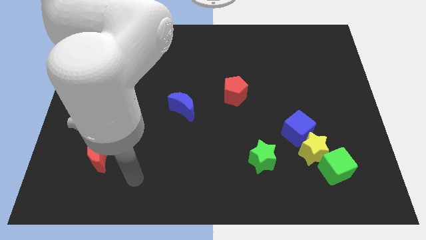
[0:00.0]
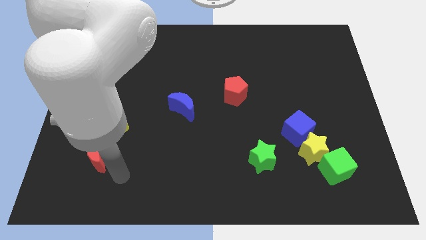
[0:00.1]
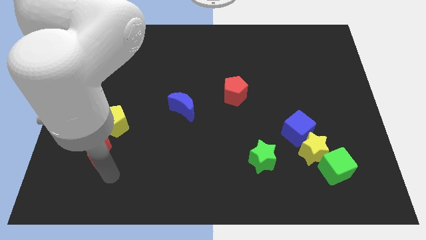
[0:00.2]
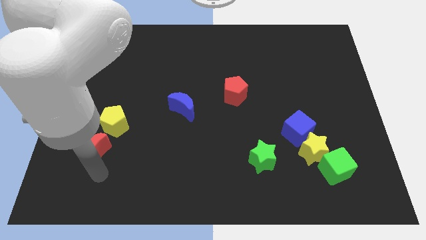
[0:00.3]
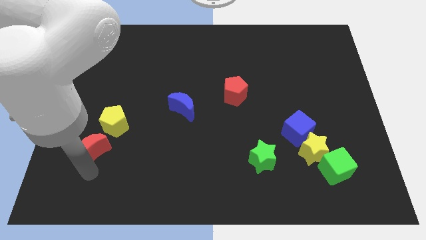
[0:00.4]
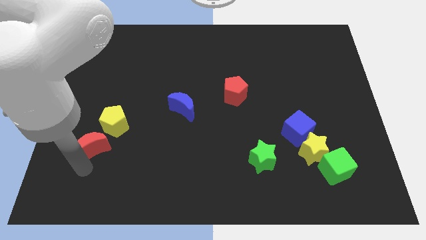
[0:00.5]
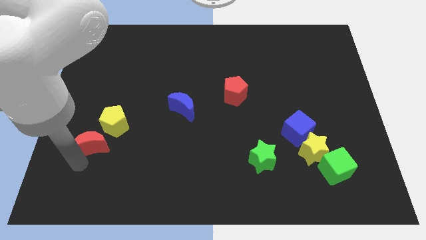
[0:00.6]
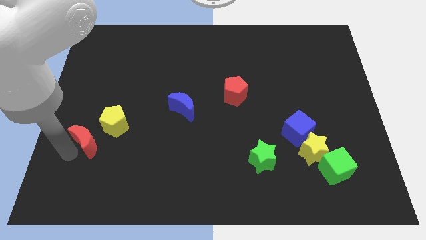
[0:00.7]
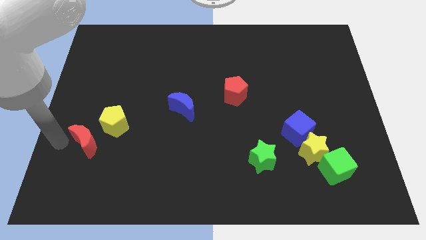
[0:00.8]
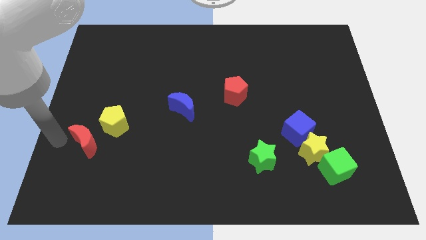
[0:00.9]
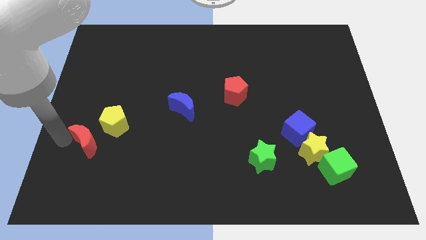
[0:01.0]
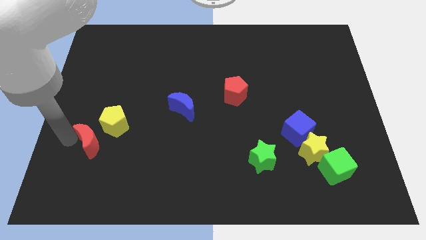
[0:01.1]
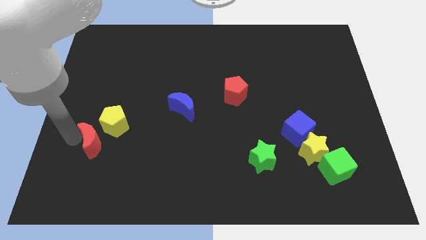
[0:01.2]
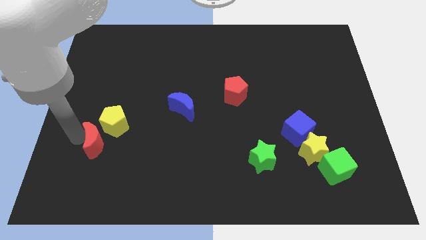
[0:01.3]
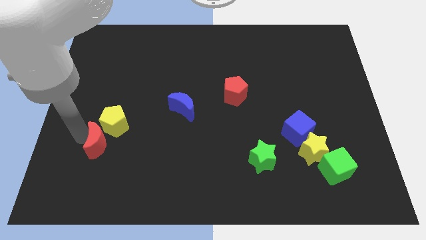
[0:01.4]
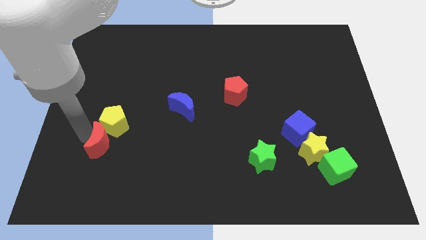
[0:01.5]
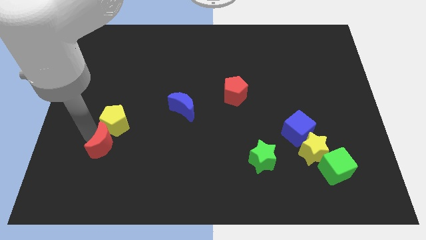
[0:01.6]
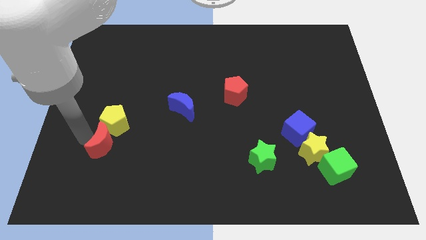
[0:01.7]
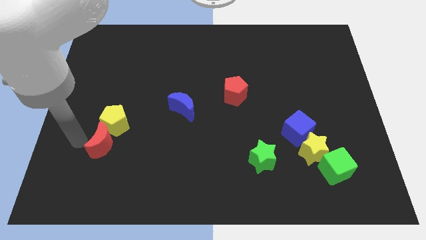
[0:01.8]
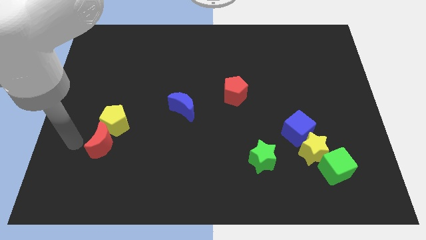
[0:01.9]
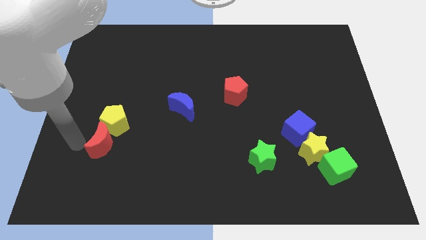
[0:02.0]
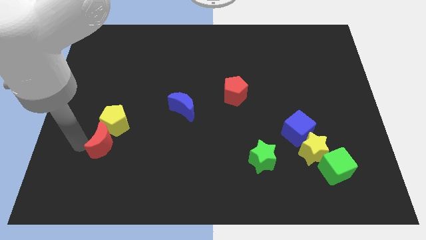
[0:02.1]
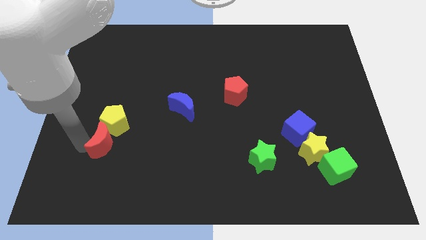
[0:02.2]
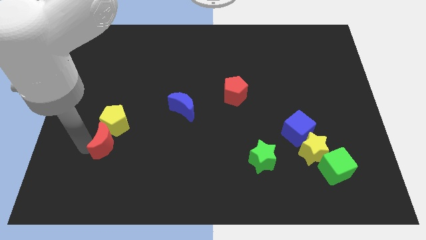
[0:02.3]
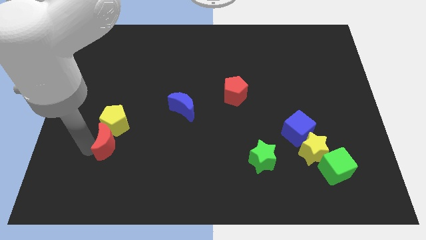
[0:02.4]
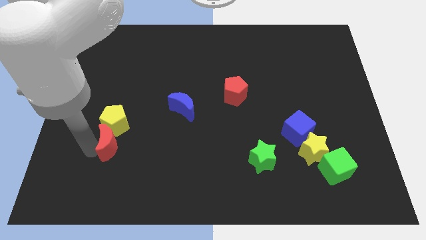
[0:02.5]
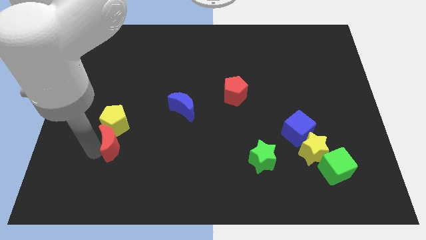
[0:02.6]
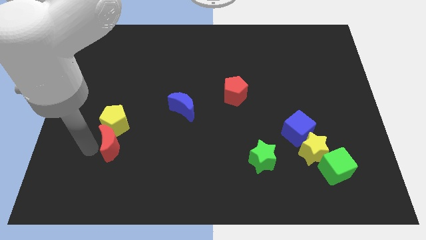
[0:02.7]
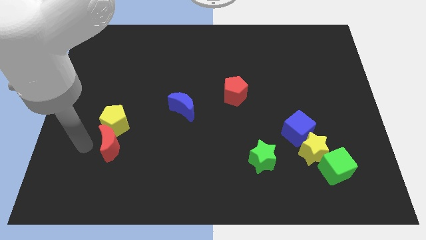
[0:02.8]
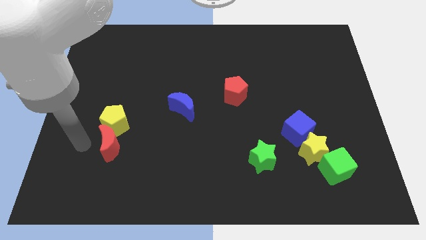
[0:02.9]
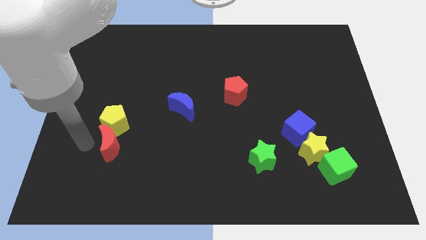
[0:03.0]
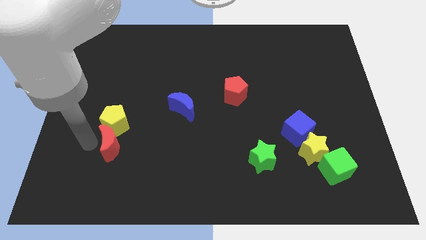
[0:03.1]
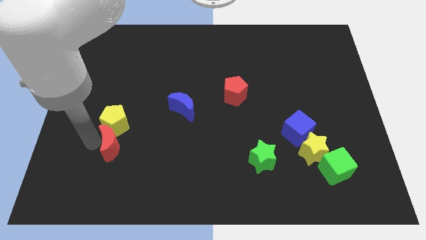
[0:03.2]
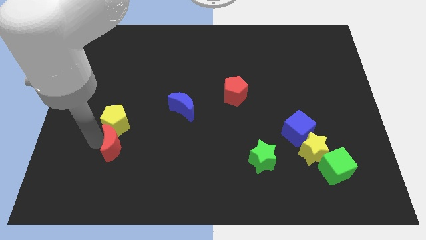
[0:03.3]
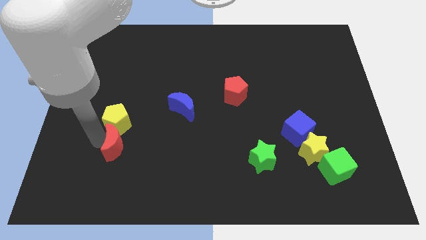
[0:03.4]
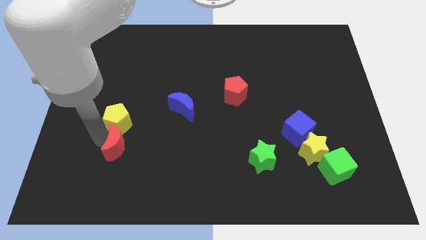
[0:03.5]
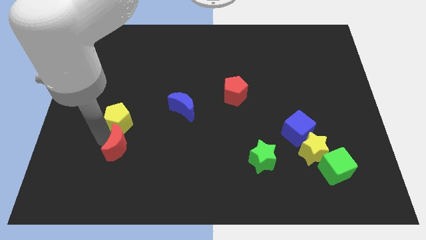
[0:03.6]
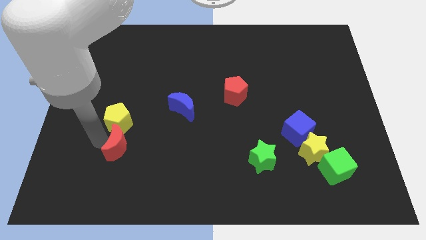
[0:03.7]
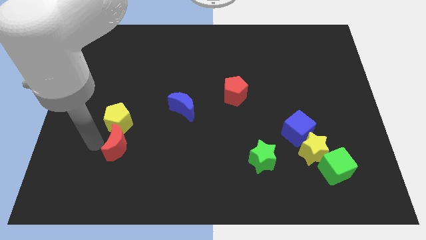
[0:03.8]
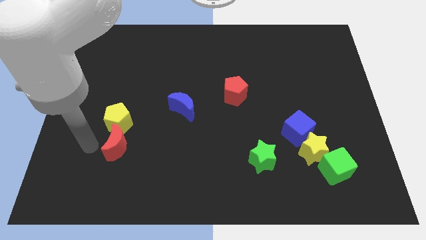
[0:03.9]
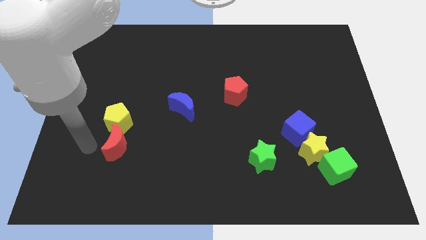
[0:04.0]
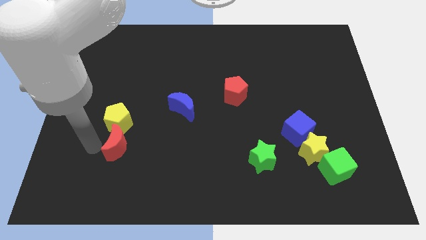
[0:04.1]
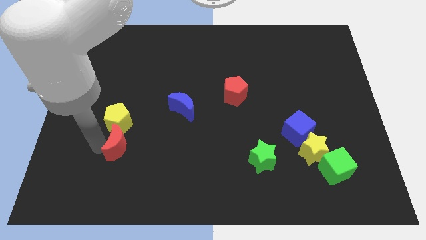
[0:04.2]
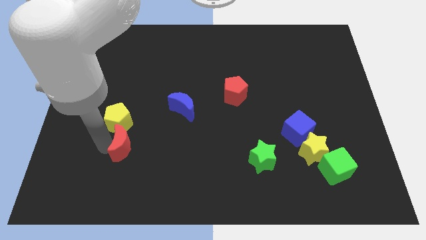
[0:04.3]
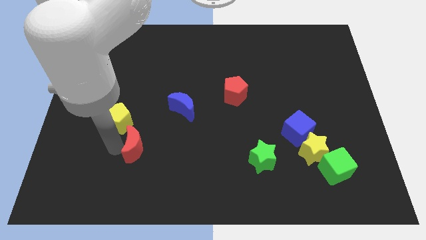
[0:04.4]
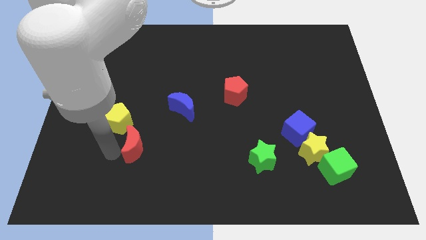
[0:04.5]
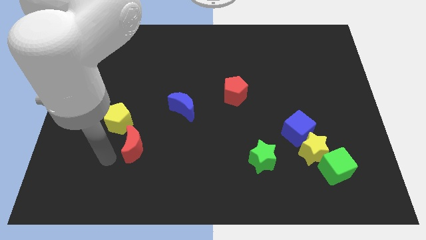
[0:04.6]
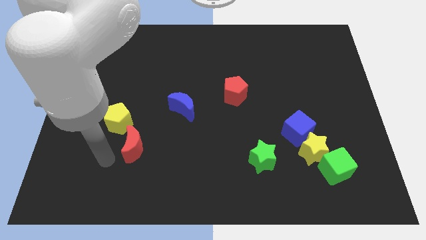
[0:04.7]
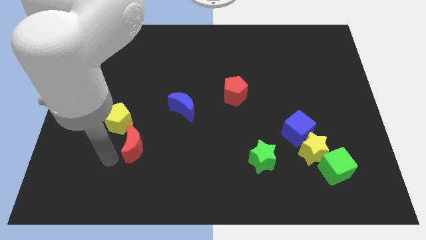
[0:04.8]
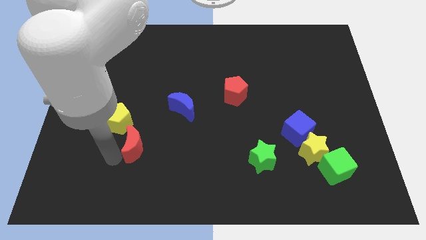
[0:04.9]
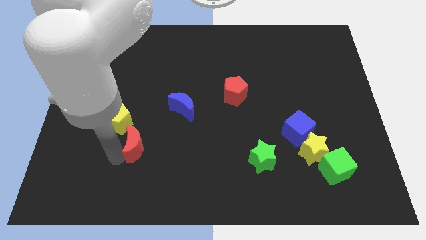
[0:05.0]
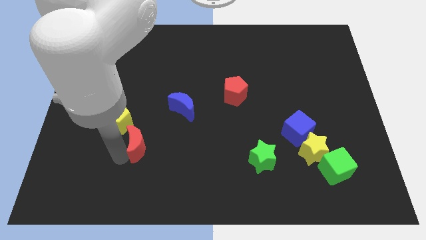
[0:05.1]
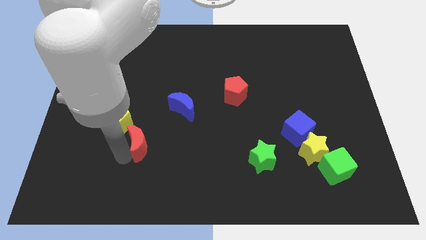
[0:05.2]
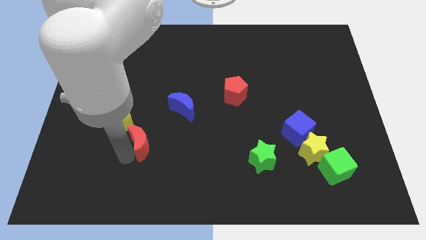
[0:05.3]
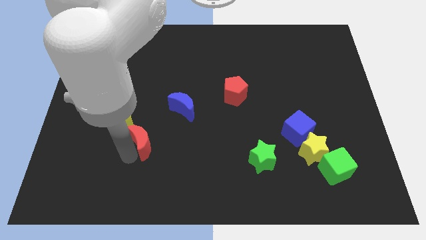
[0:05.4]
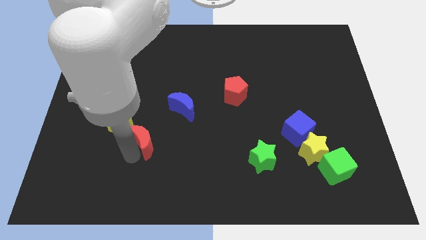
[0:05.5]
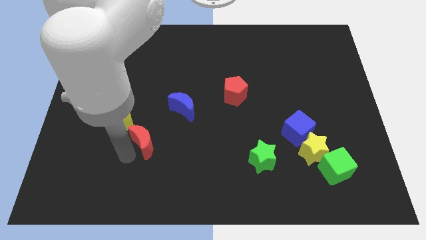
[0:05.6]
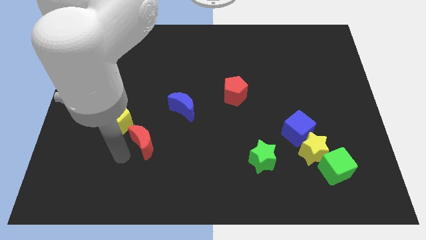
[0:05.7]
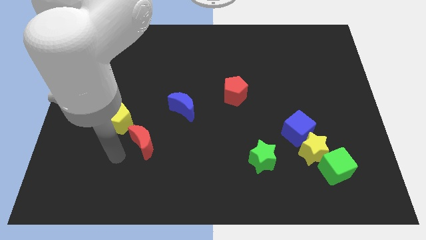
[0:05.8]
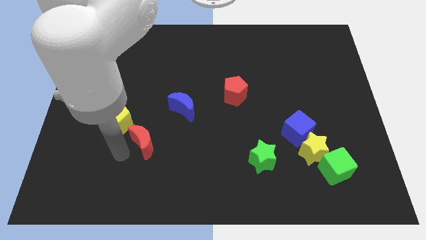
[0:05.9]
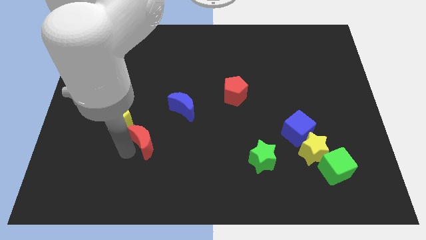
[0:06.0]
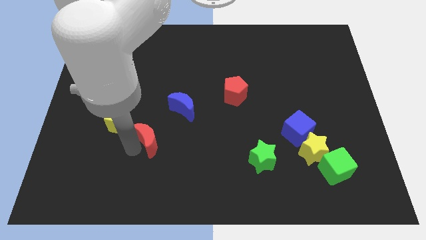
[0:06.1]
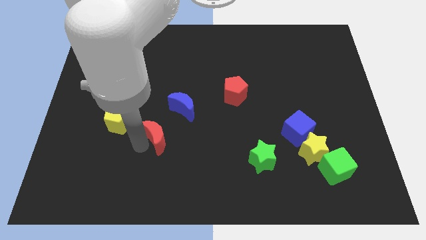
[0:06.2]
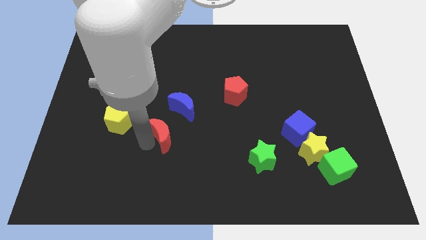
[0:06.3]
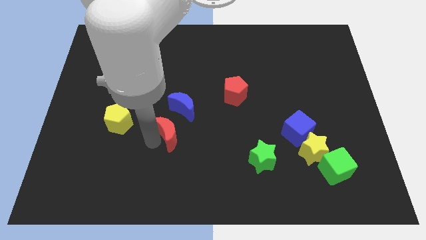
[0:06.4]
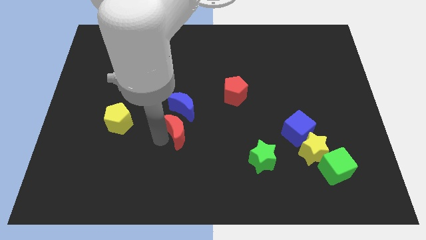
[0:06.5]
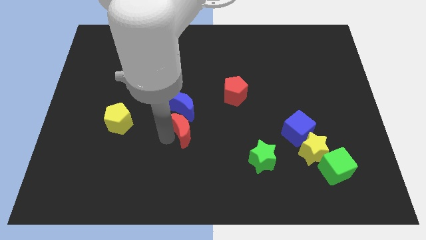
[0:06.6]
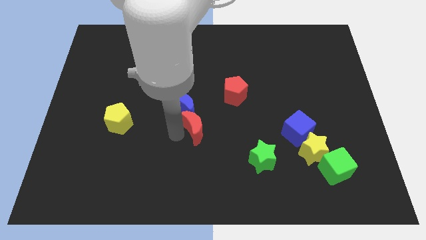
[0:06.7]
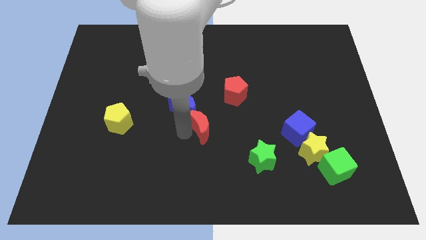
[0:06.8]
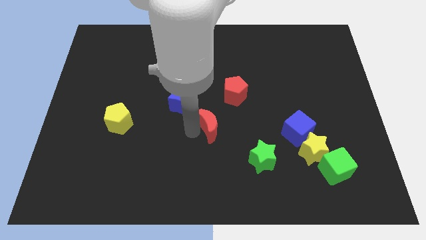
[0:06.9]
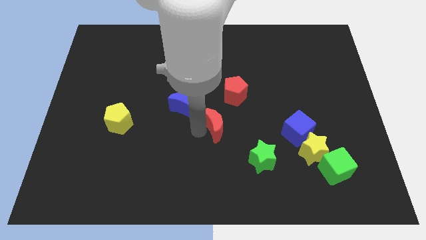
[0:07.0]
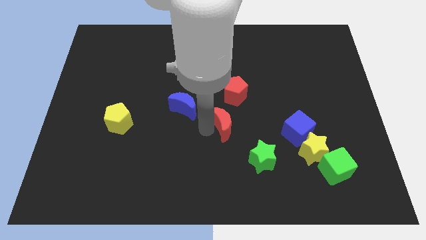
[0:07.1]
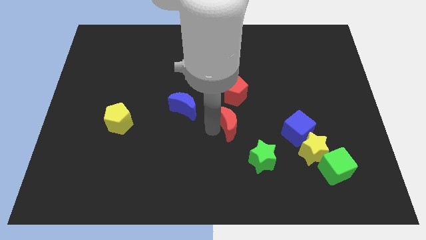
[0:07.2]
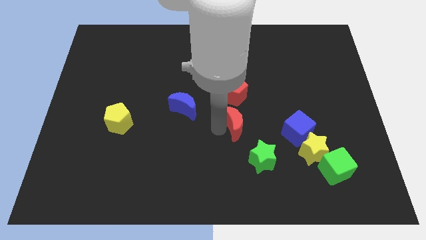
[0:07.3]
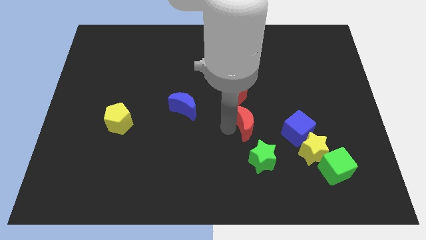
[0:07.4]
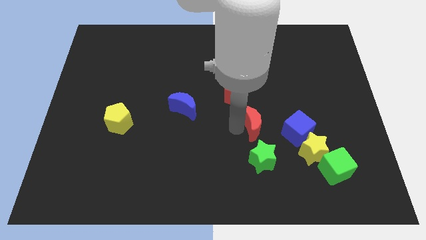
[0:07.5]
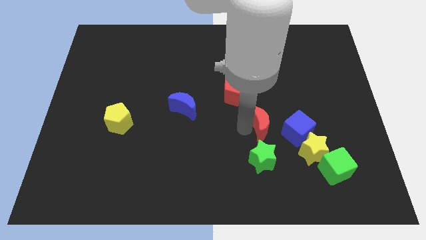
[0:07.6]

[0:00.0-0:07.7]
put the red moon to the top left side of the blue cube
